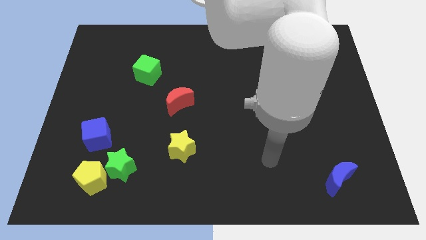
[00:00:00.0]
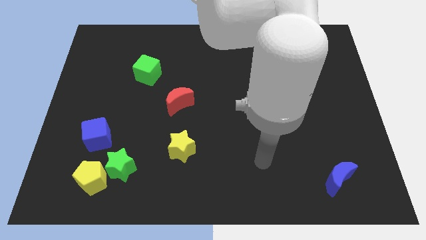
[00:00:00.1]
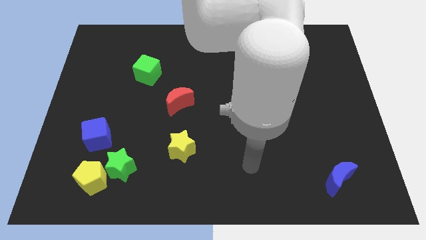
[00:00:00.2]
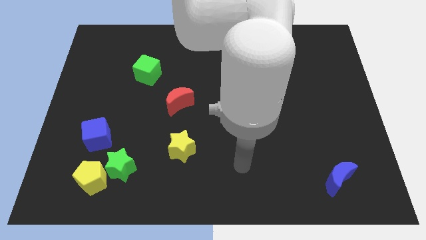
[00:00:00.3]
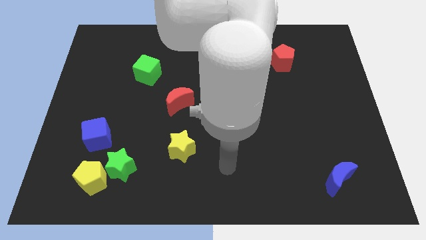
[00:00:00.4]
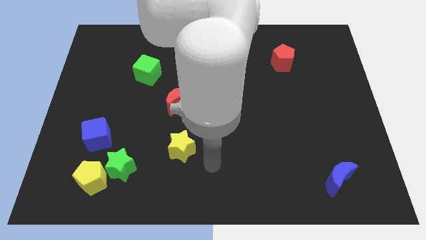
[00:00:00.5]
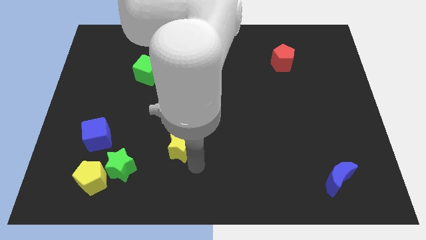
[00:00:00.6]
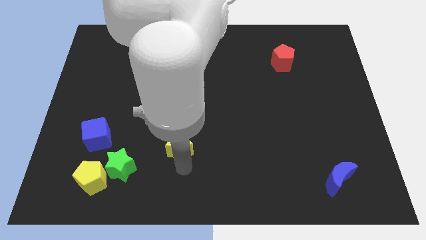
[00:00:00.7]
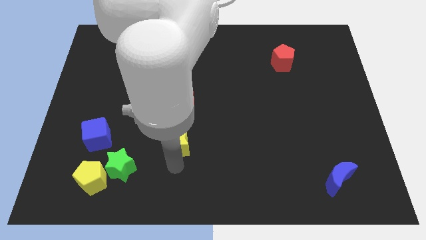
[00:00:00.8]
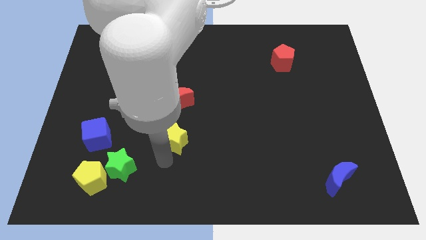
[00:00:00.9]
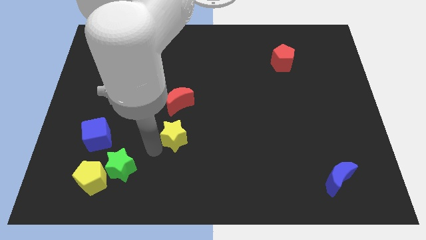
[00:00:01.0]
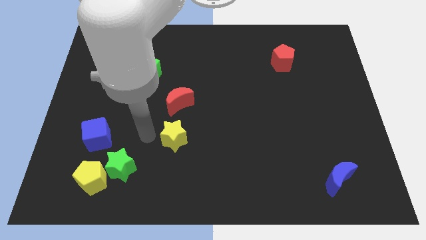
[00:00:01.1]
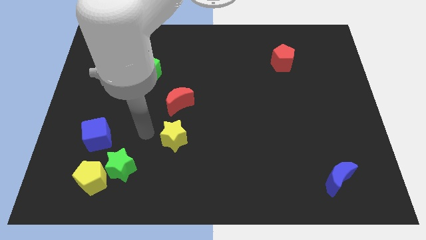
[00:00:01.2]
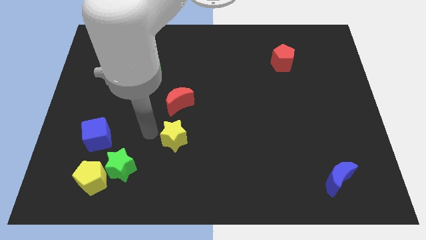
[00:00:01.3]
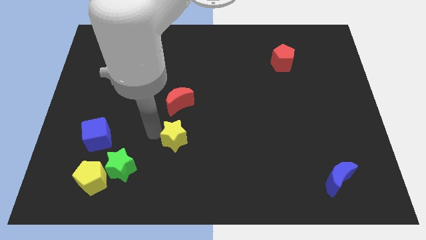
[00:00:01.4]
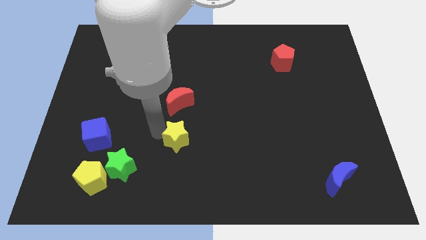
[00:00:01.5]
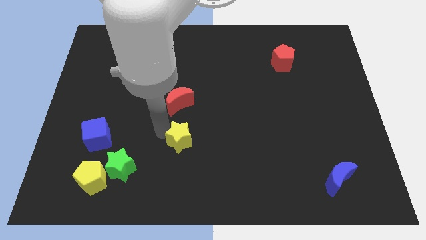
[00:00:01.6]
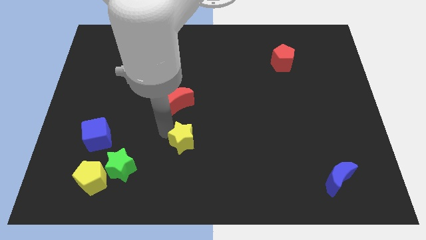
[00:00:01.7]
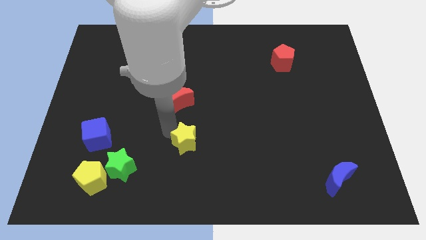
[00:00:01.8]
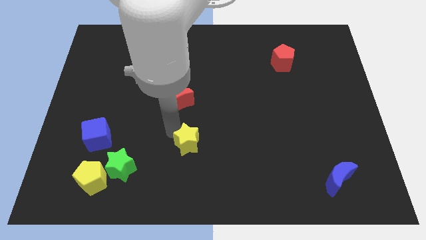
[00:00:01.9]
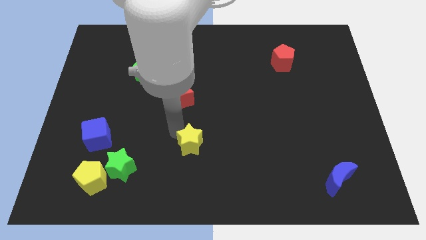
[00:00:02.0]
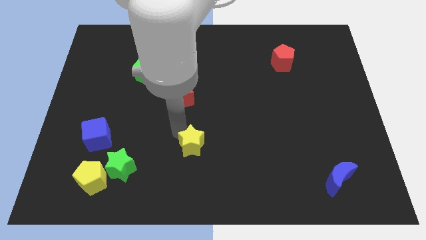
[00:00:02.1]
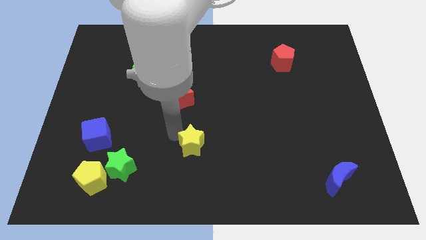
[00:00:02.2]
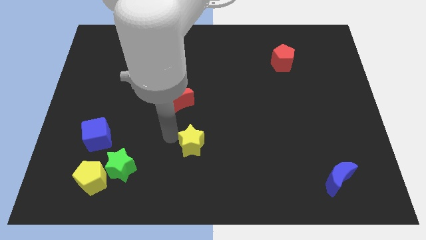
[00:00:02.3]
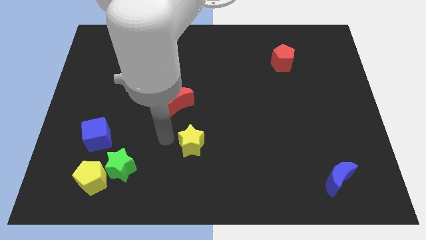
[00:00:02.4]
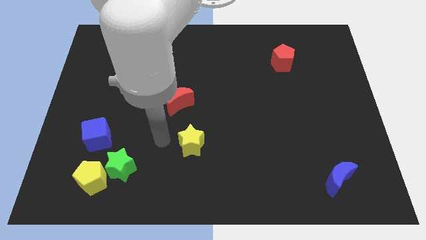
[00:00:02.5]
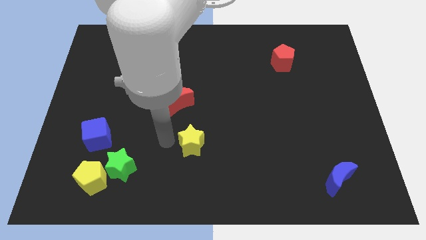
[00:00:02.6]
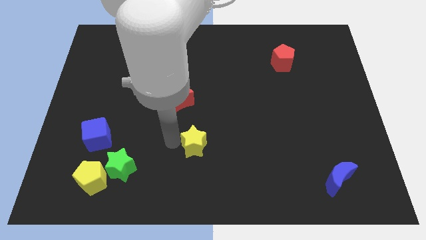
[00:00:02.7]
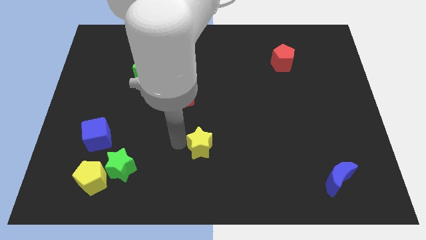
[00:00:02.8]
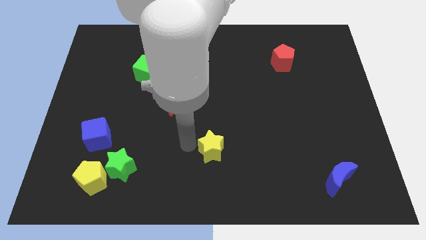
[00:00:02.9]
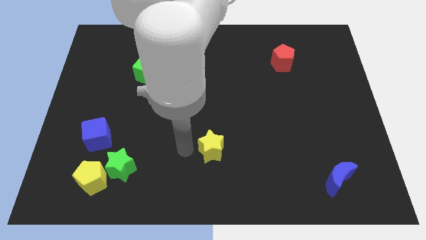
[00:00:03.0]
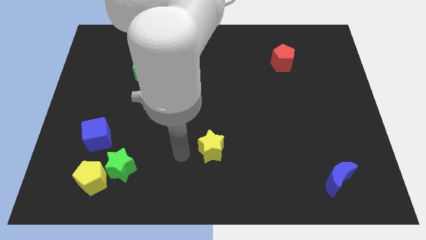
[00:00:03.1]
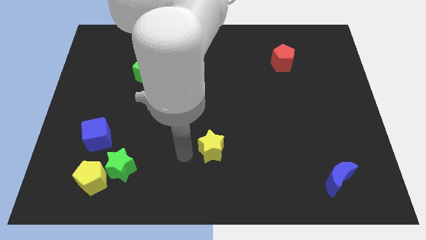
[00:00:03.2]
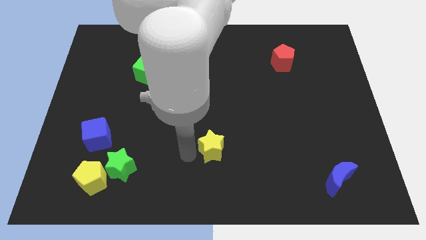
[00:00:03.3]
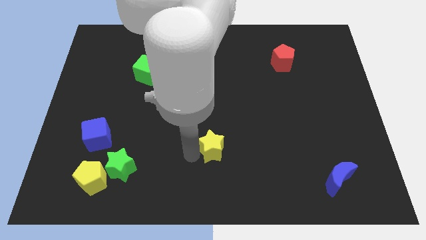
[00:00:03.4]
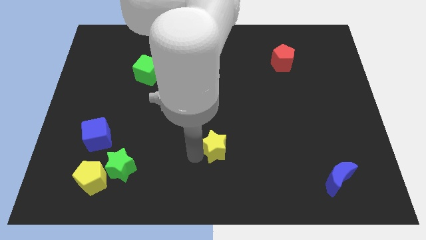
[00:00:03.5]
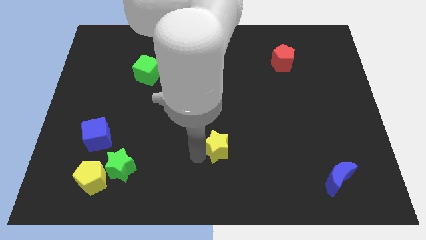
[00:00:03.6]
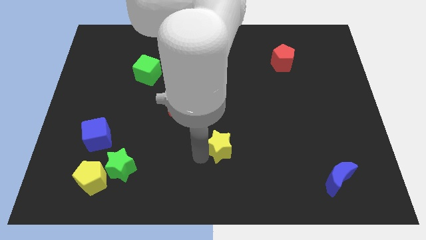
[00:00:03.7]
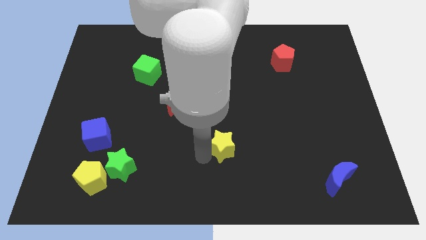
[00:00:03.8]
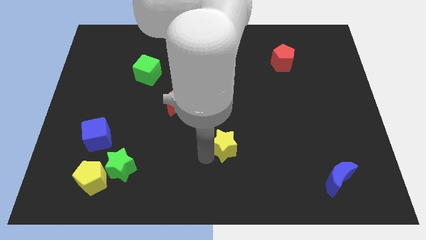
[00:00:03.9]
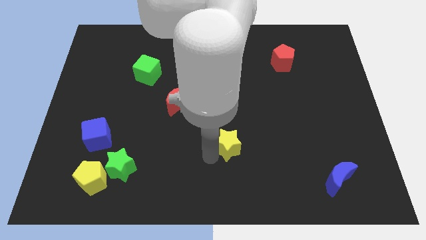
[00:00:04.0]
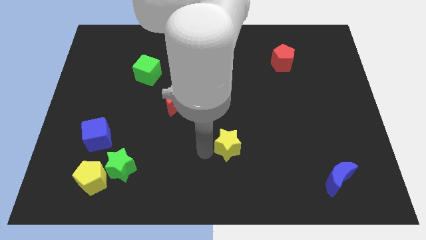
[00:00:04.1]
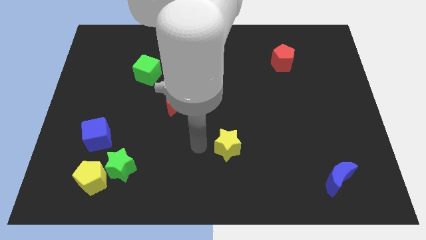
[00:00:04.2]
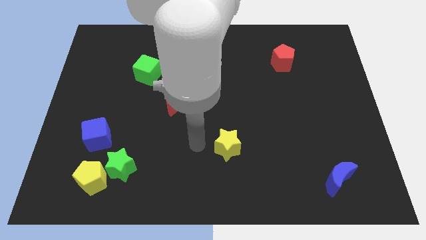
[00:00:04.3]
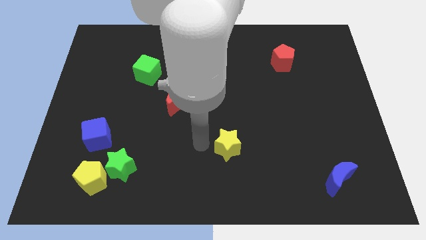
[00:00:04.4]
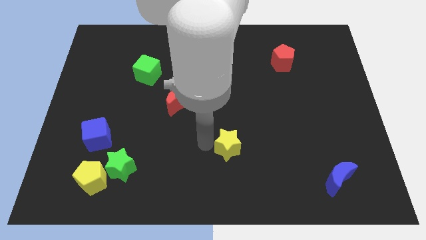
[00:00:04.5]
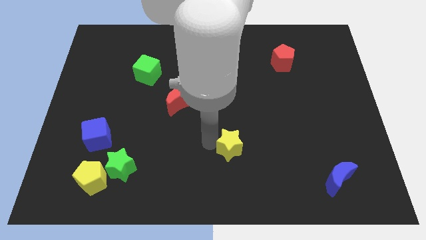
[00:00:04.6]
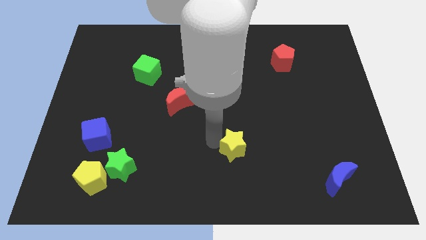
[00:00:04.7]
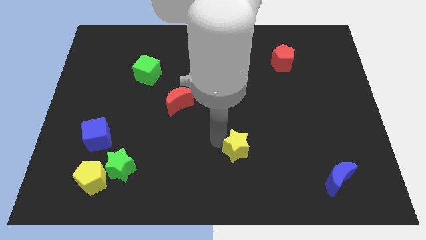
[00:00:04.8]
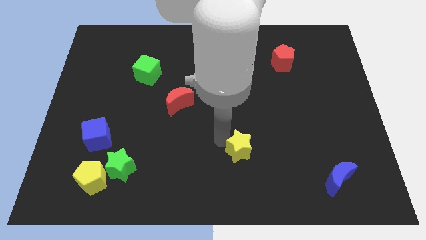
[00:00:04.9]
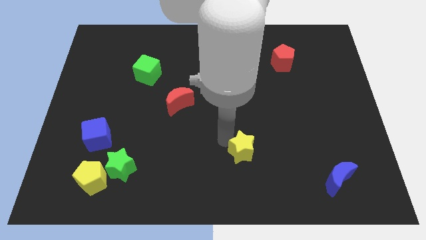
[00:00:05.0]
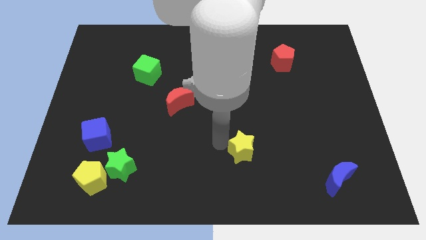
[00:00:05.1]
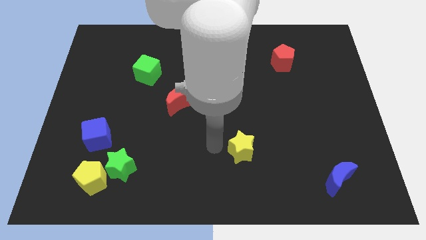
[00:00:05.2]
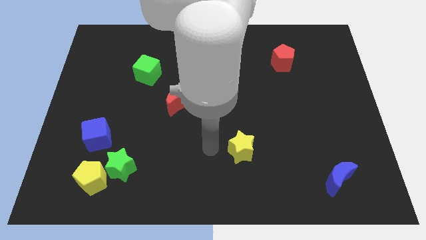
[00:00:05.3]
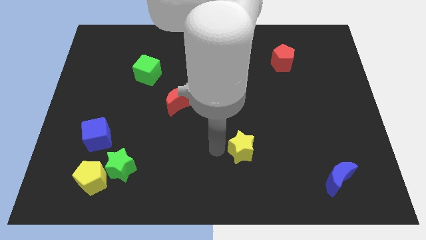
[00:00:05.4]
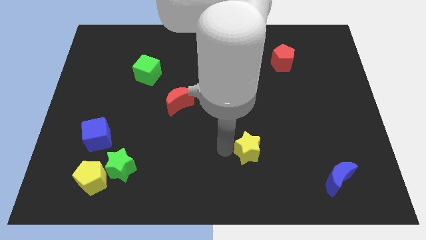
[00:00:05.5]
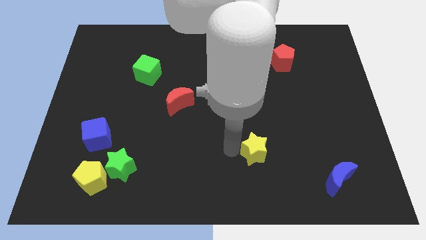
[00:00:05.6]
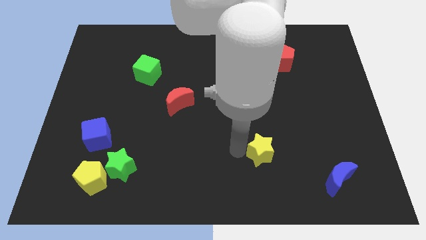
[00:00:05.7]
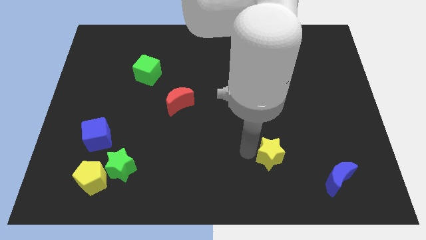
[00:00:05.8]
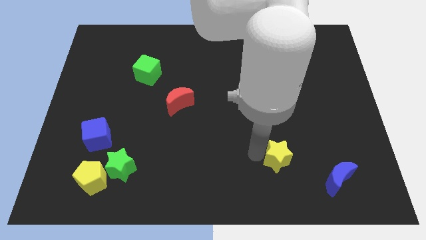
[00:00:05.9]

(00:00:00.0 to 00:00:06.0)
move the yellow star right

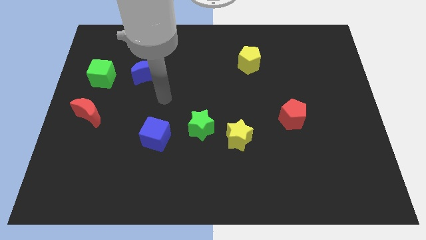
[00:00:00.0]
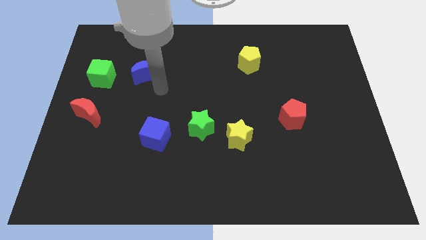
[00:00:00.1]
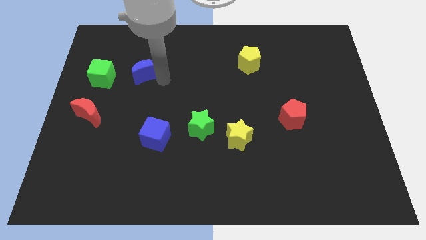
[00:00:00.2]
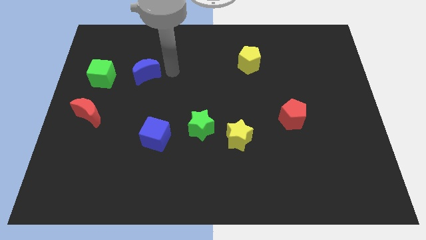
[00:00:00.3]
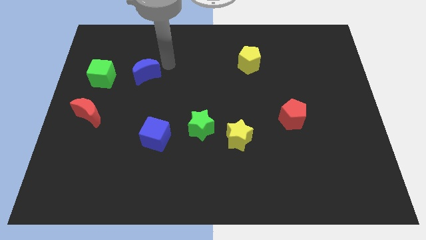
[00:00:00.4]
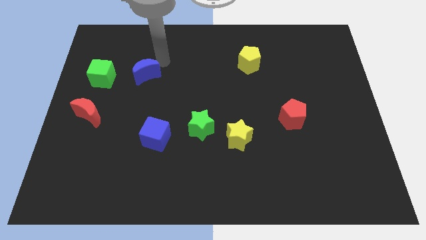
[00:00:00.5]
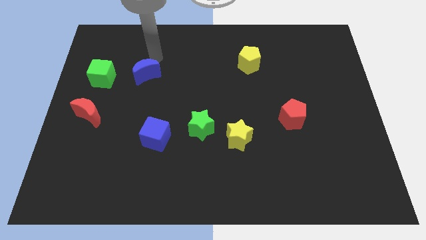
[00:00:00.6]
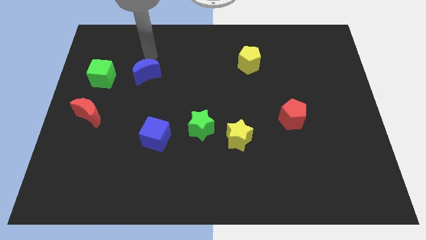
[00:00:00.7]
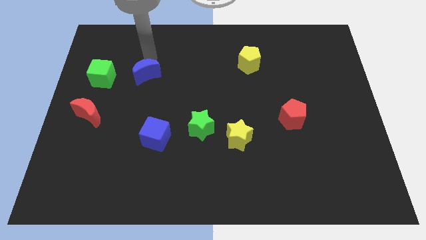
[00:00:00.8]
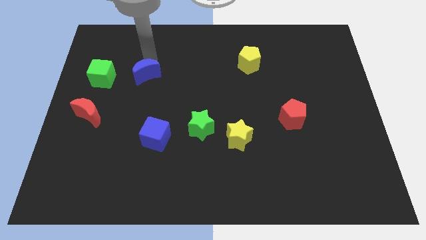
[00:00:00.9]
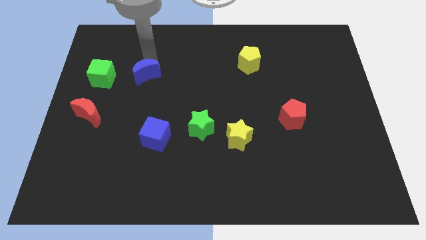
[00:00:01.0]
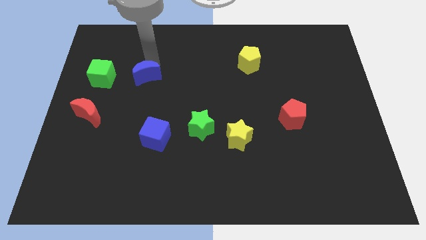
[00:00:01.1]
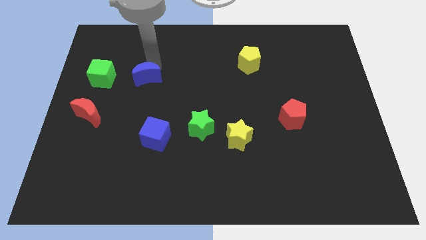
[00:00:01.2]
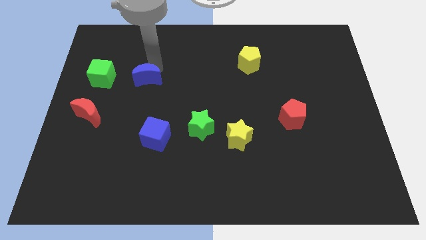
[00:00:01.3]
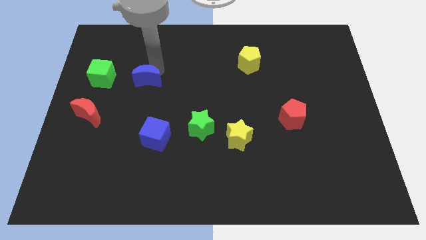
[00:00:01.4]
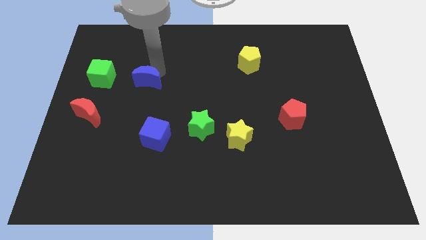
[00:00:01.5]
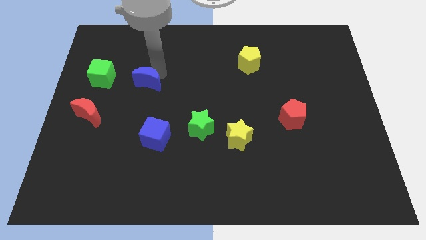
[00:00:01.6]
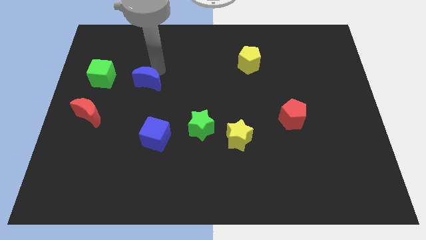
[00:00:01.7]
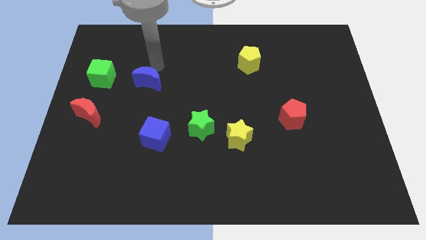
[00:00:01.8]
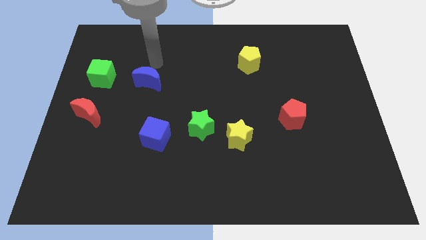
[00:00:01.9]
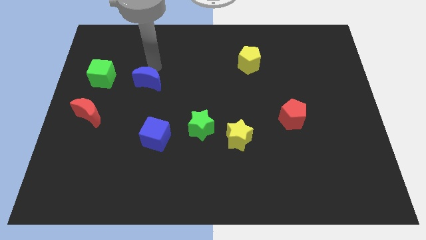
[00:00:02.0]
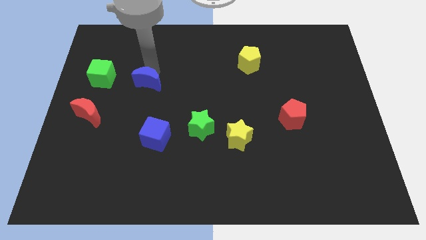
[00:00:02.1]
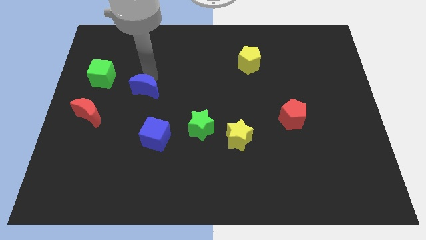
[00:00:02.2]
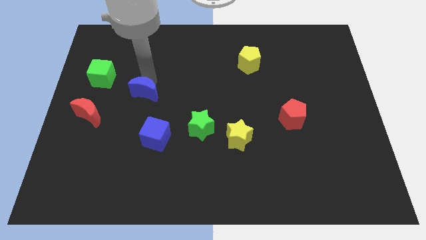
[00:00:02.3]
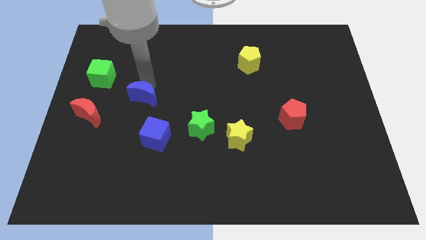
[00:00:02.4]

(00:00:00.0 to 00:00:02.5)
slightly move the blue moon down

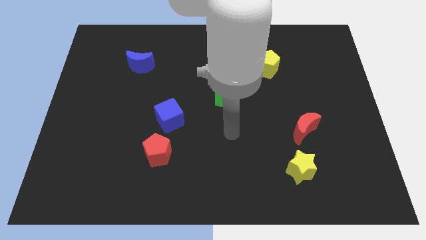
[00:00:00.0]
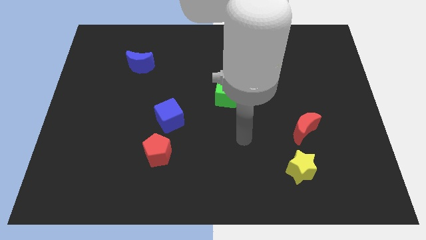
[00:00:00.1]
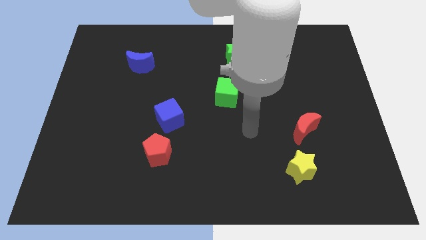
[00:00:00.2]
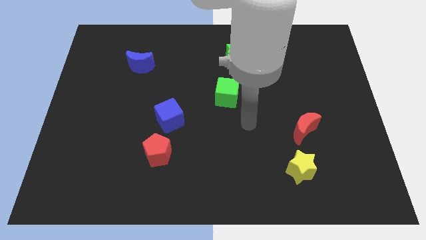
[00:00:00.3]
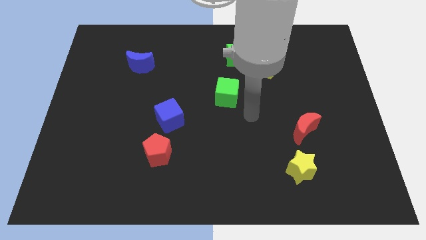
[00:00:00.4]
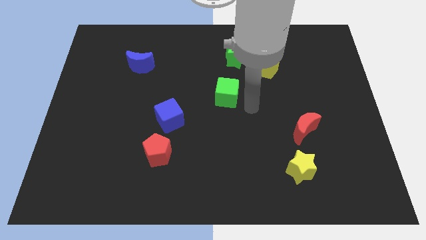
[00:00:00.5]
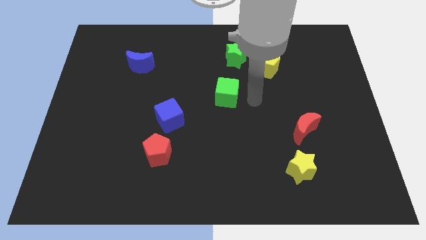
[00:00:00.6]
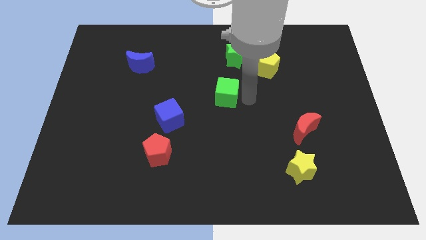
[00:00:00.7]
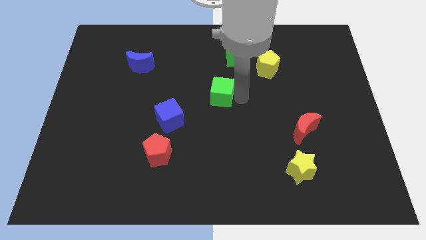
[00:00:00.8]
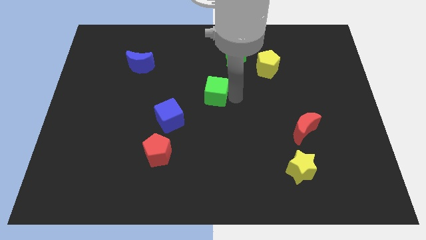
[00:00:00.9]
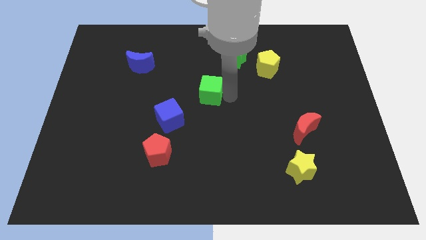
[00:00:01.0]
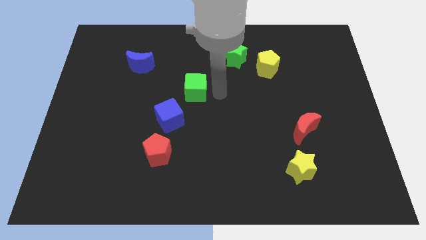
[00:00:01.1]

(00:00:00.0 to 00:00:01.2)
push the green cube left slightly
